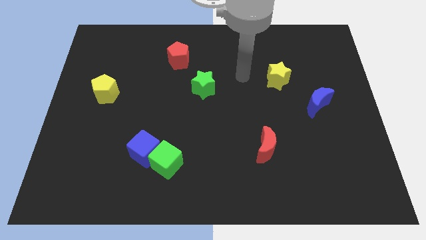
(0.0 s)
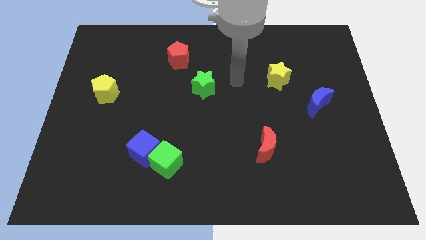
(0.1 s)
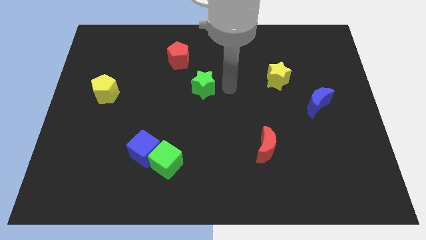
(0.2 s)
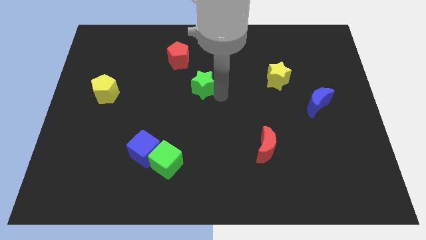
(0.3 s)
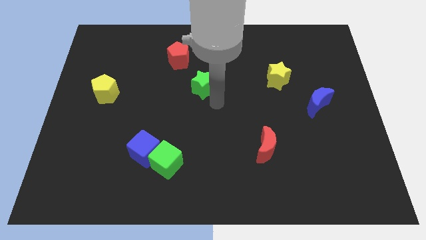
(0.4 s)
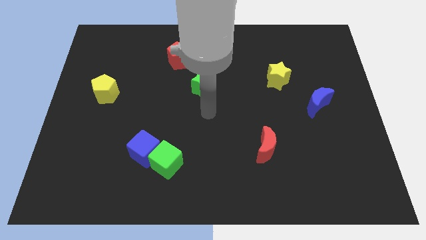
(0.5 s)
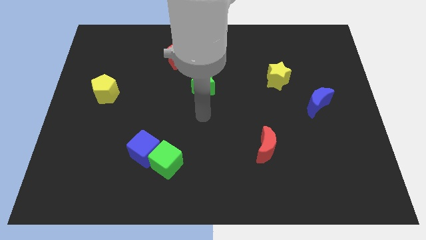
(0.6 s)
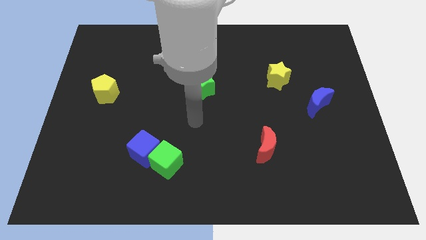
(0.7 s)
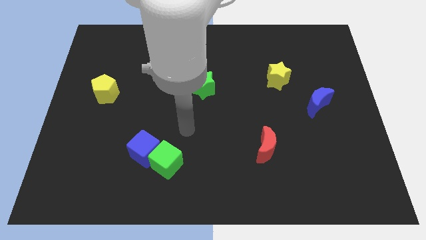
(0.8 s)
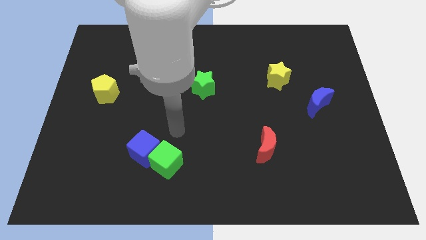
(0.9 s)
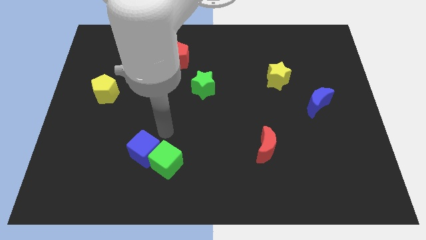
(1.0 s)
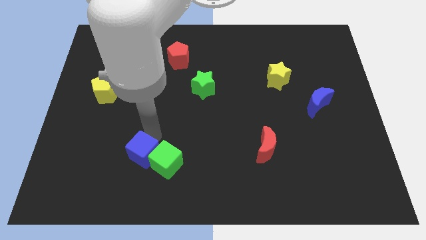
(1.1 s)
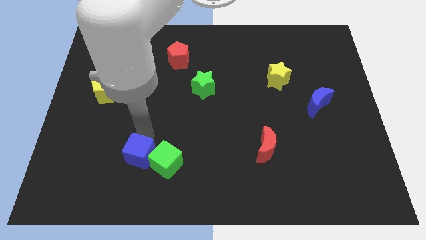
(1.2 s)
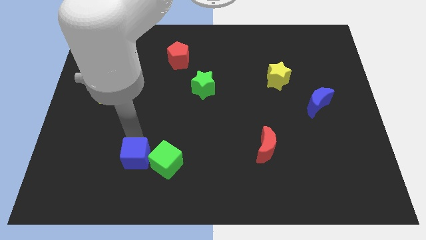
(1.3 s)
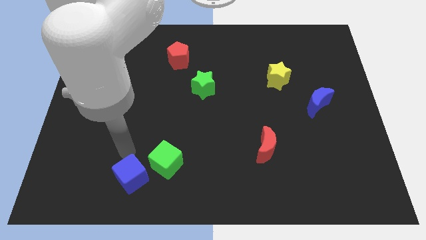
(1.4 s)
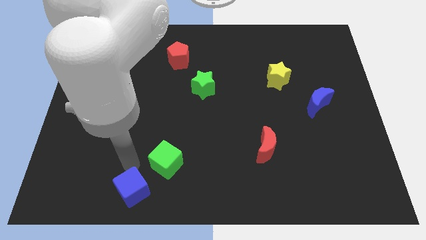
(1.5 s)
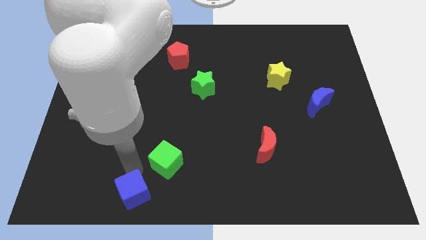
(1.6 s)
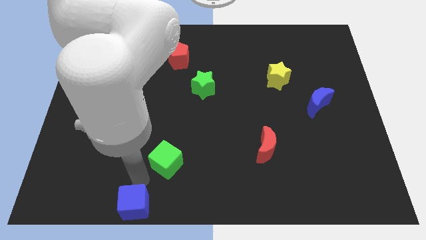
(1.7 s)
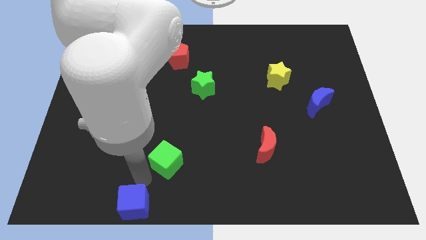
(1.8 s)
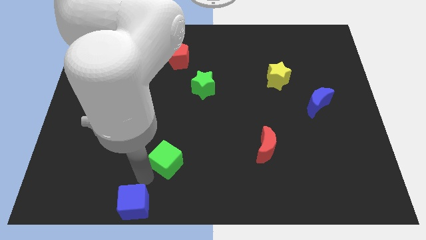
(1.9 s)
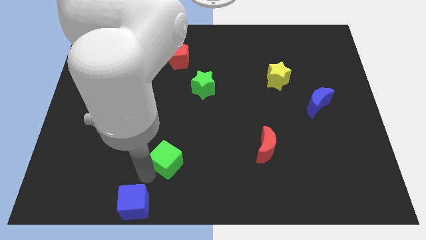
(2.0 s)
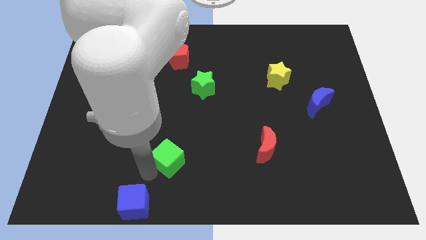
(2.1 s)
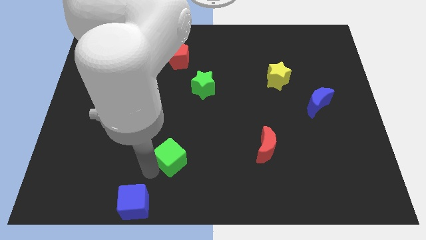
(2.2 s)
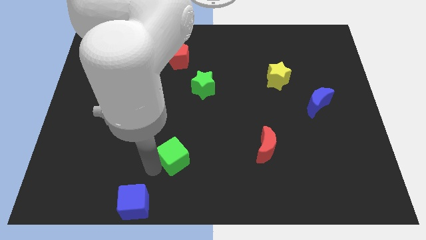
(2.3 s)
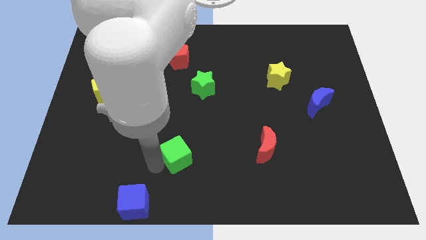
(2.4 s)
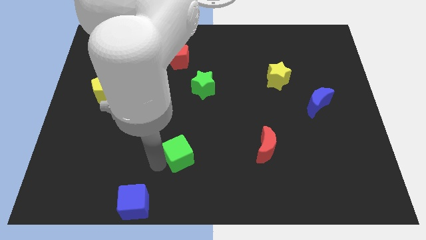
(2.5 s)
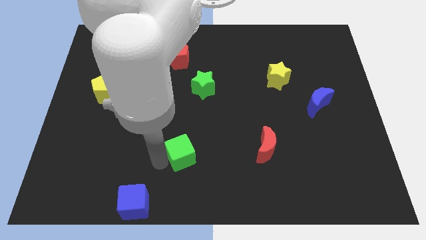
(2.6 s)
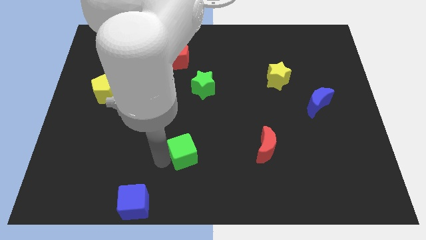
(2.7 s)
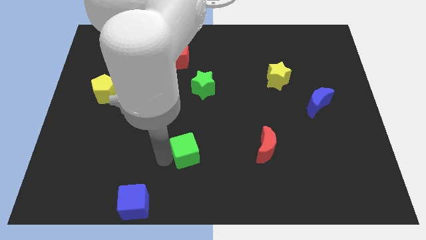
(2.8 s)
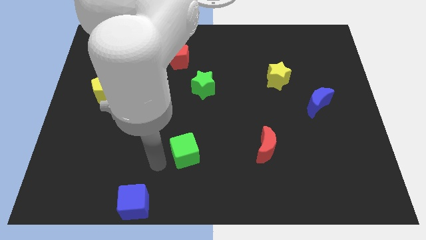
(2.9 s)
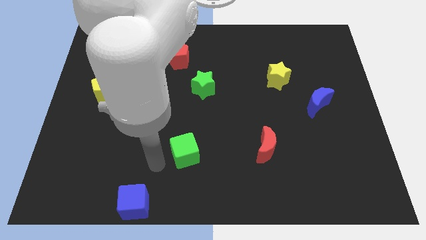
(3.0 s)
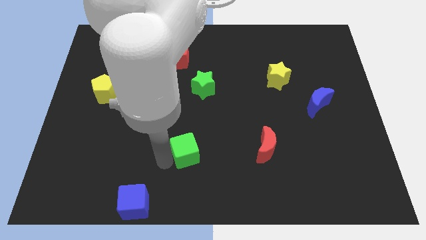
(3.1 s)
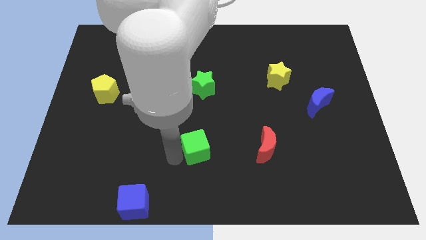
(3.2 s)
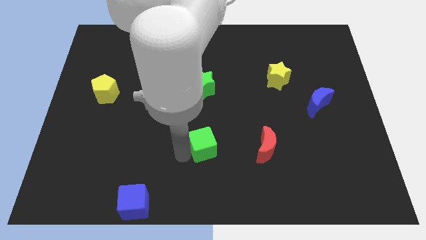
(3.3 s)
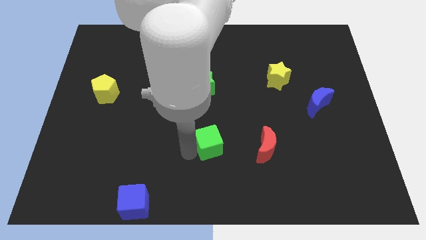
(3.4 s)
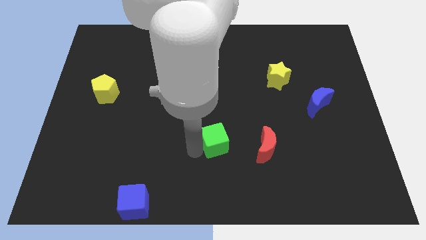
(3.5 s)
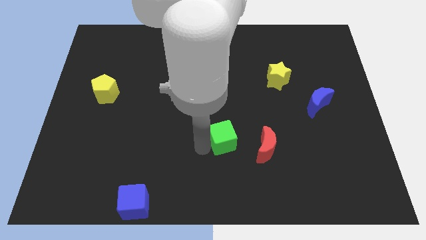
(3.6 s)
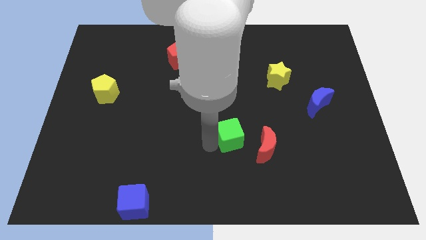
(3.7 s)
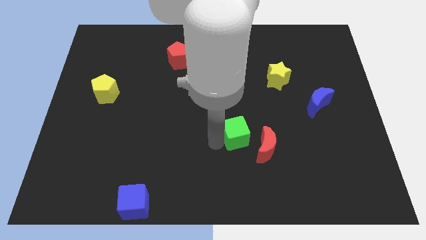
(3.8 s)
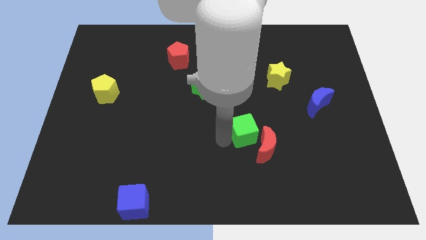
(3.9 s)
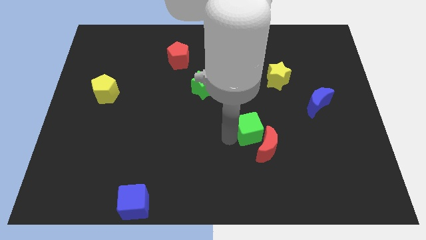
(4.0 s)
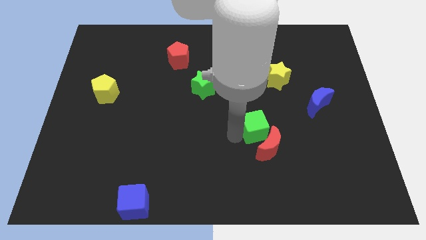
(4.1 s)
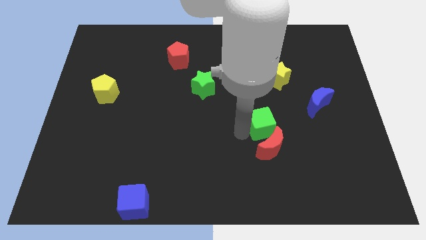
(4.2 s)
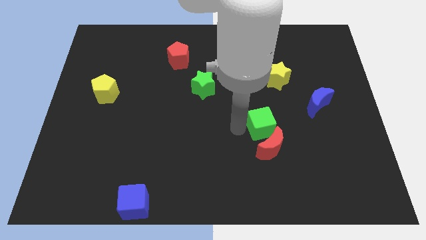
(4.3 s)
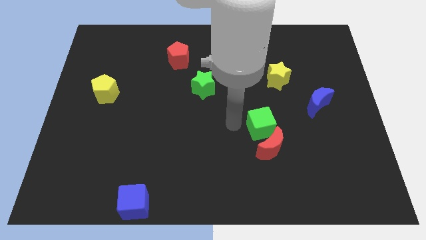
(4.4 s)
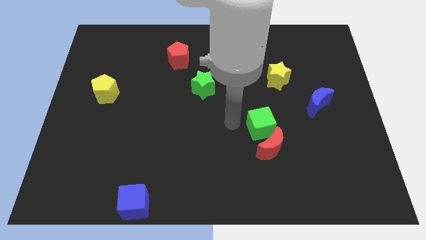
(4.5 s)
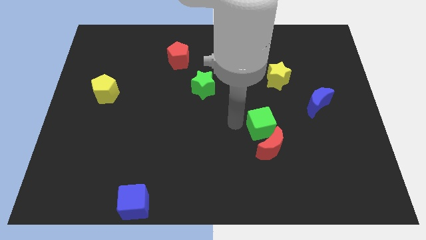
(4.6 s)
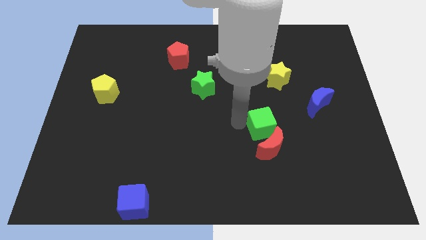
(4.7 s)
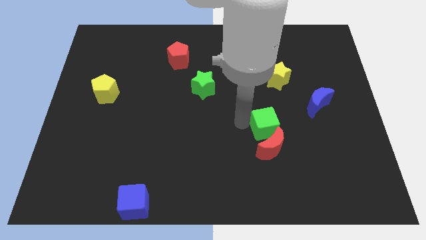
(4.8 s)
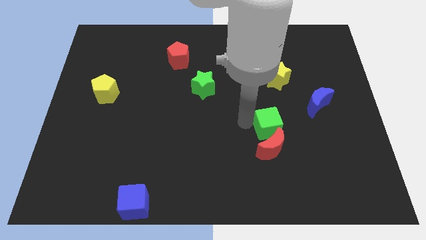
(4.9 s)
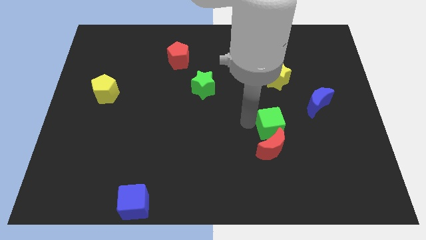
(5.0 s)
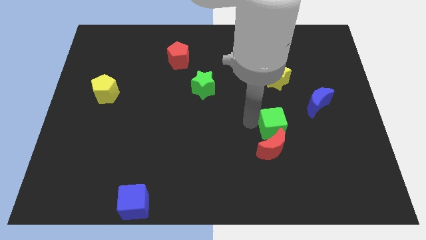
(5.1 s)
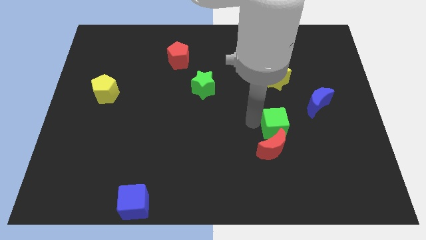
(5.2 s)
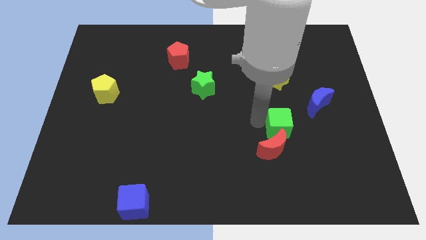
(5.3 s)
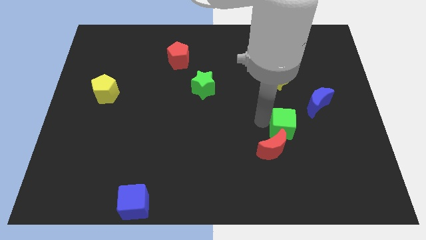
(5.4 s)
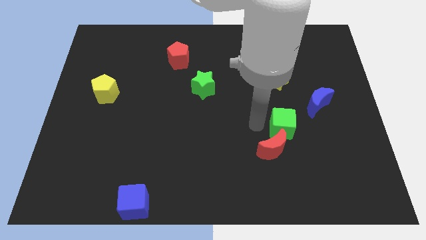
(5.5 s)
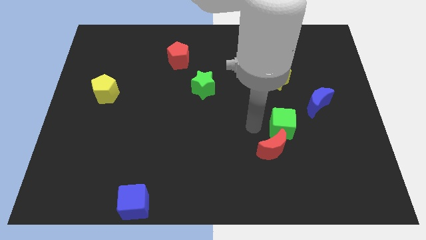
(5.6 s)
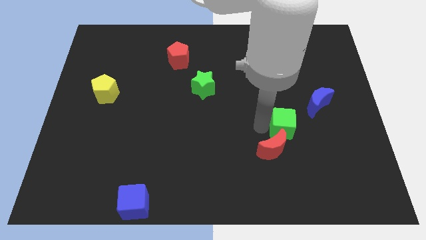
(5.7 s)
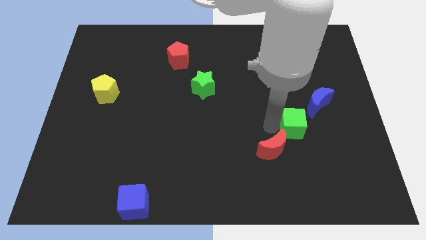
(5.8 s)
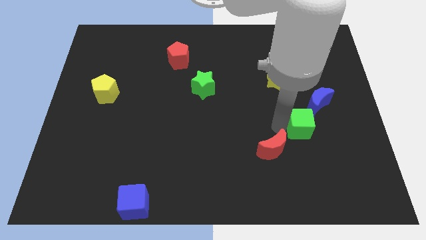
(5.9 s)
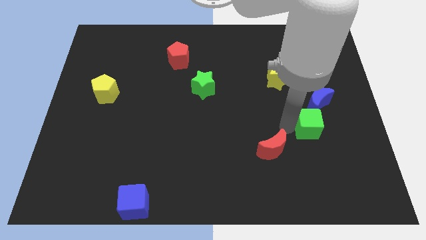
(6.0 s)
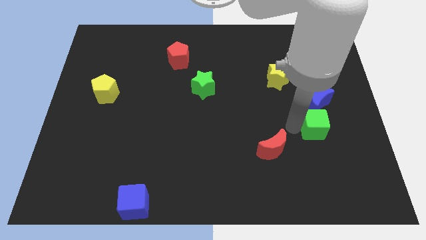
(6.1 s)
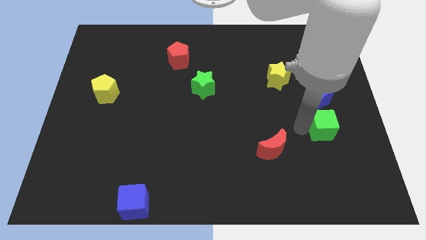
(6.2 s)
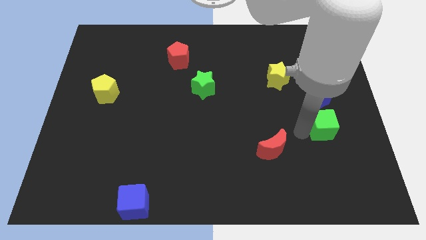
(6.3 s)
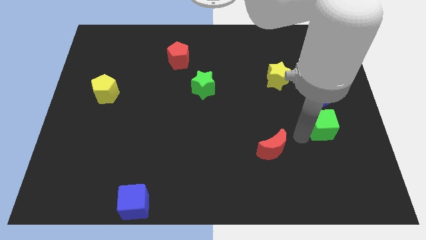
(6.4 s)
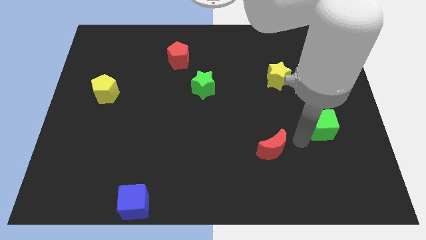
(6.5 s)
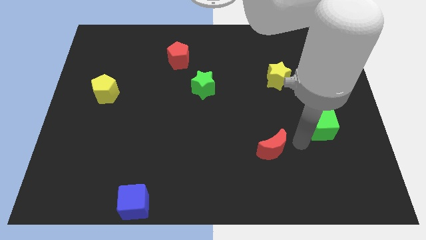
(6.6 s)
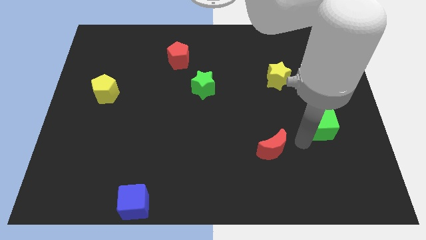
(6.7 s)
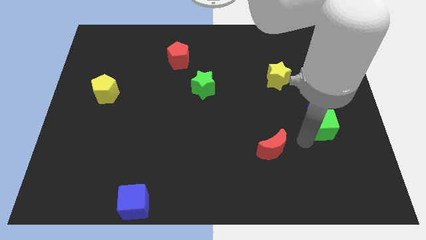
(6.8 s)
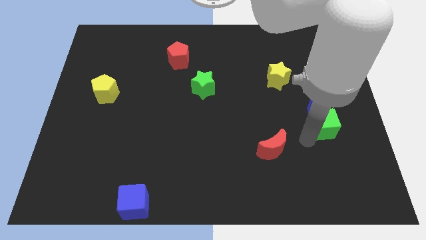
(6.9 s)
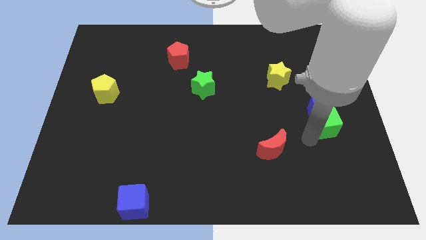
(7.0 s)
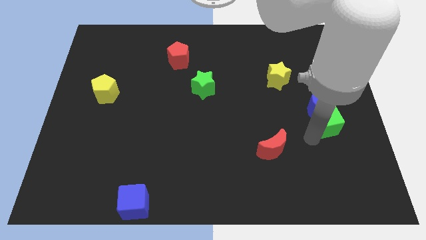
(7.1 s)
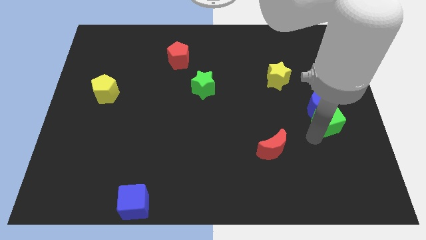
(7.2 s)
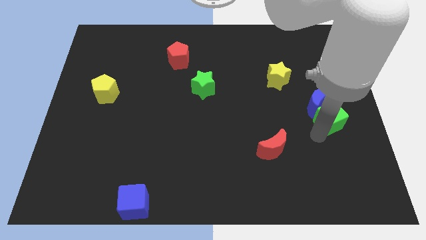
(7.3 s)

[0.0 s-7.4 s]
slide the green cube to the right side

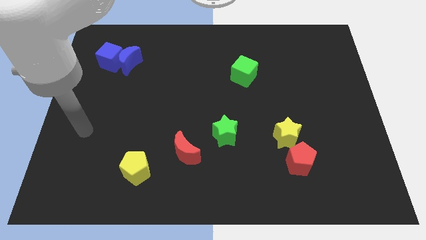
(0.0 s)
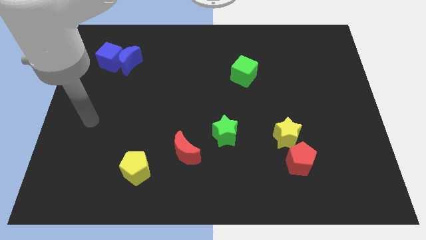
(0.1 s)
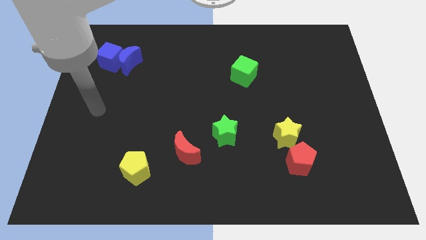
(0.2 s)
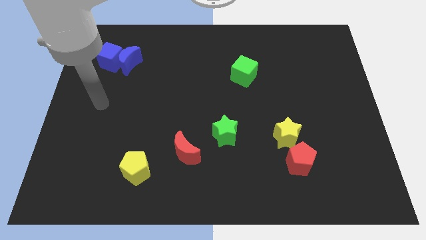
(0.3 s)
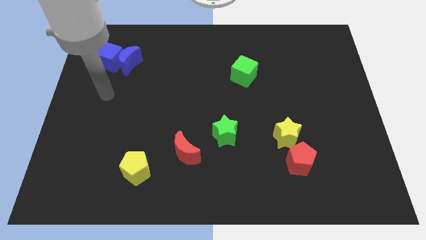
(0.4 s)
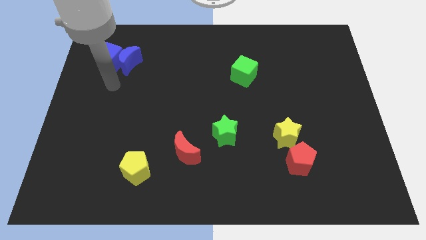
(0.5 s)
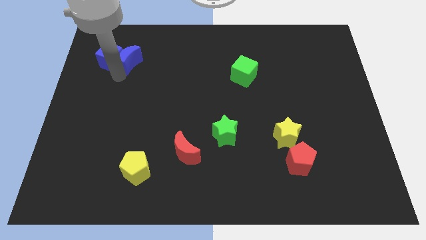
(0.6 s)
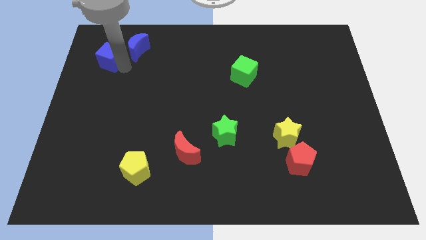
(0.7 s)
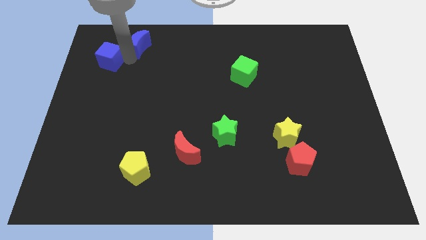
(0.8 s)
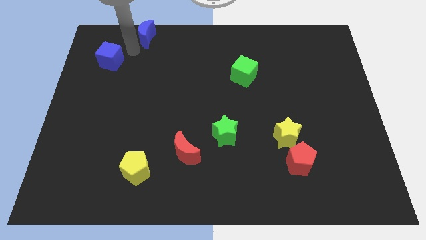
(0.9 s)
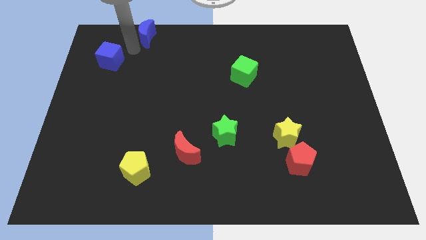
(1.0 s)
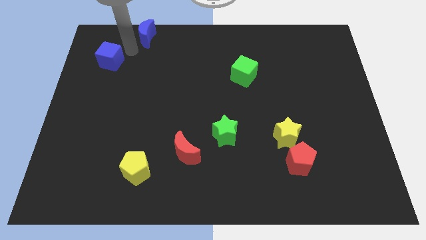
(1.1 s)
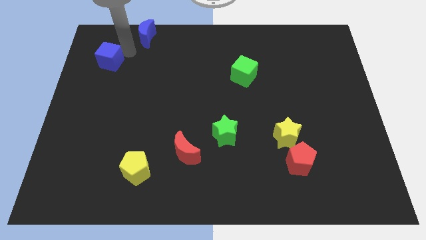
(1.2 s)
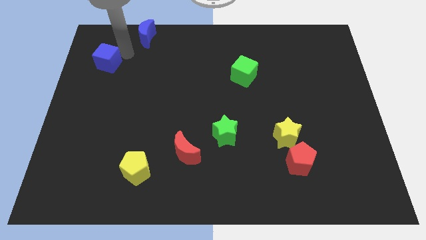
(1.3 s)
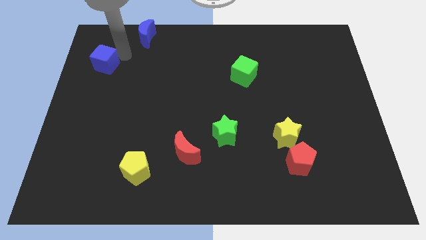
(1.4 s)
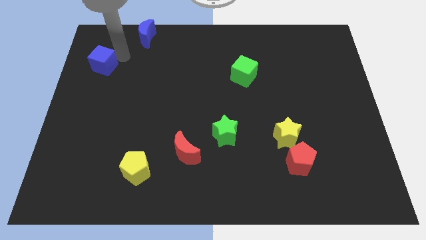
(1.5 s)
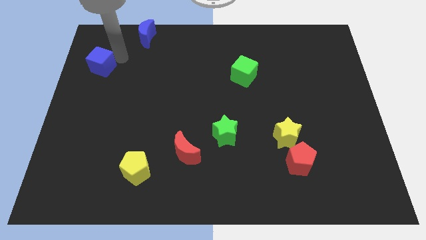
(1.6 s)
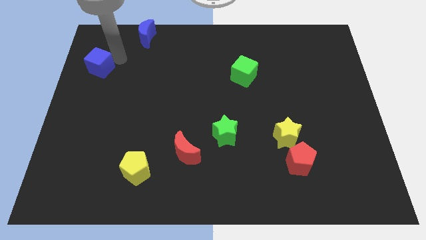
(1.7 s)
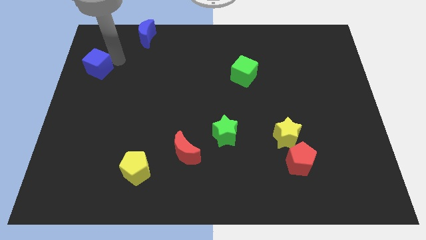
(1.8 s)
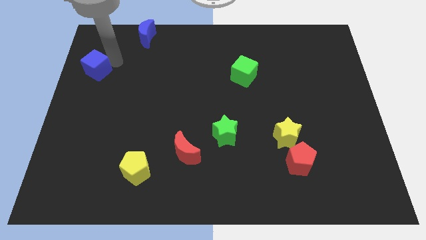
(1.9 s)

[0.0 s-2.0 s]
put the blue cube to the left side
